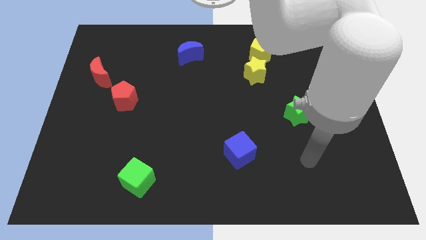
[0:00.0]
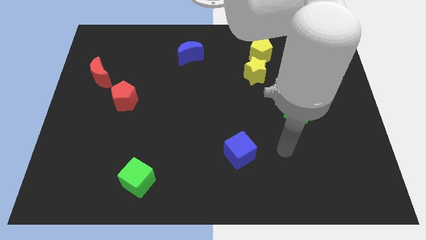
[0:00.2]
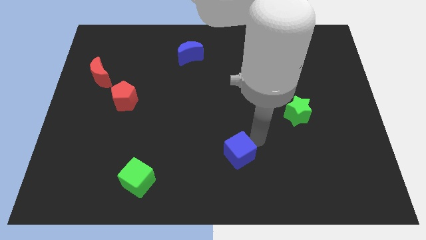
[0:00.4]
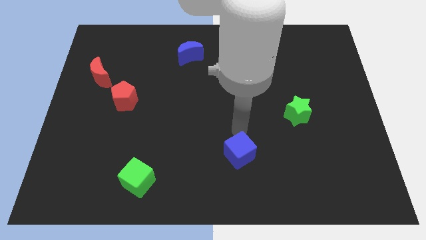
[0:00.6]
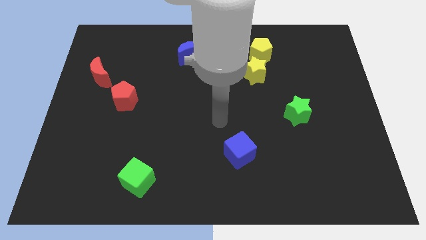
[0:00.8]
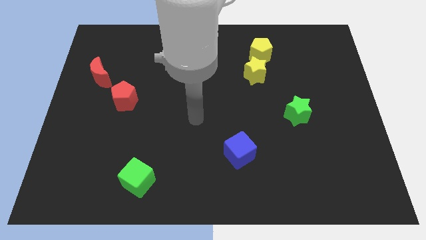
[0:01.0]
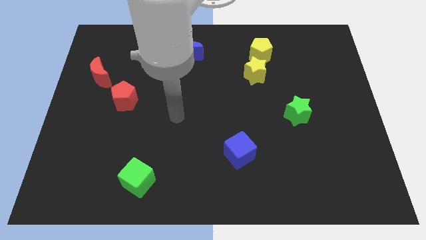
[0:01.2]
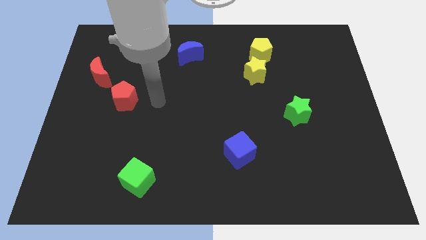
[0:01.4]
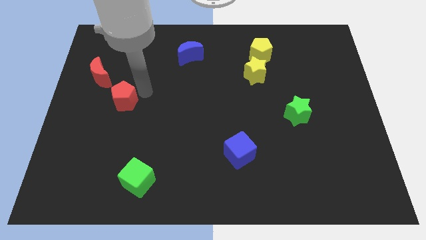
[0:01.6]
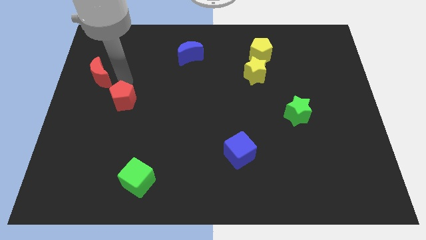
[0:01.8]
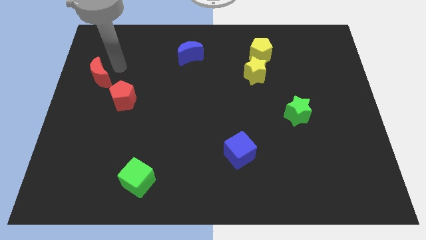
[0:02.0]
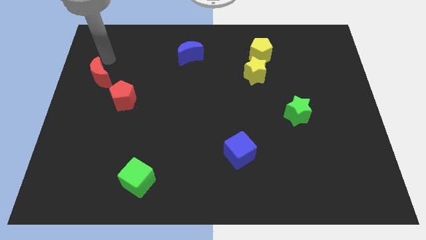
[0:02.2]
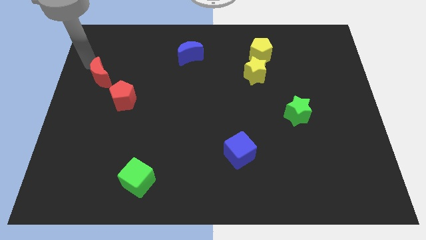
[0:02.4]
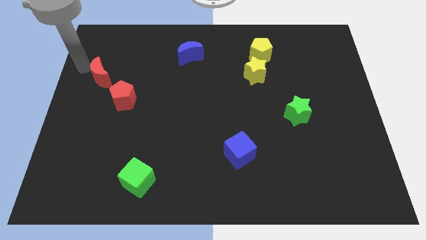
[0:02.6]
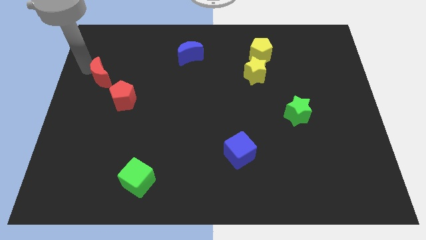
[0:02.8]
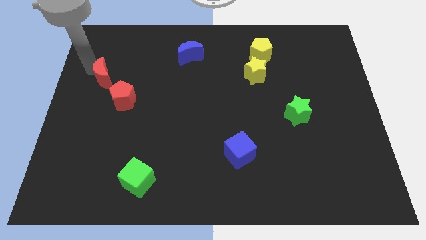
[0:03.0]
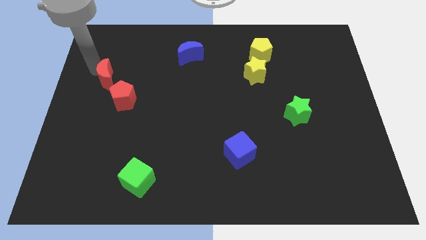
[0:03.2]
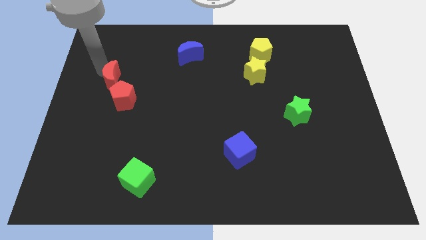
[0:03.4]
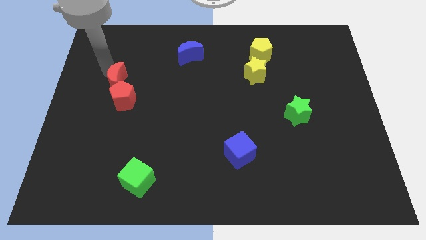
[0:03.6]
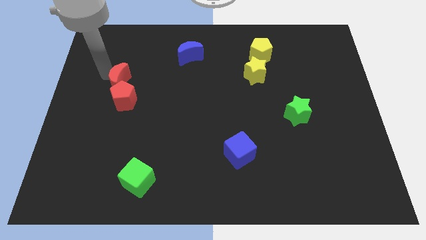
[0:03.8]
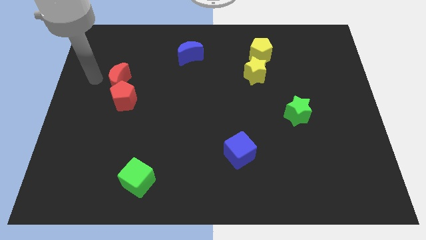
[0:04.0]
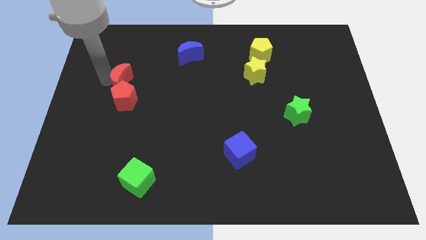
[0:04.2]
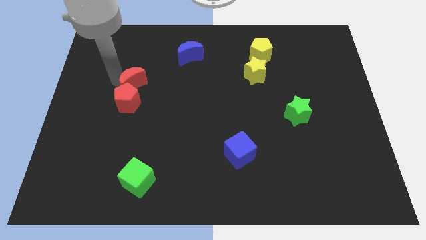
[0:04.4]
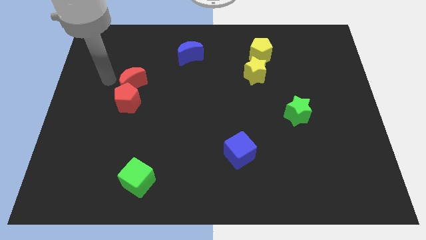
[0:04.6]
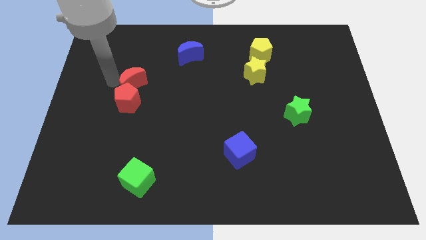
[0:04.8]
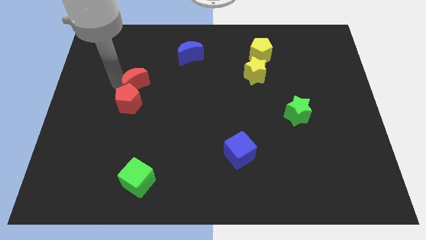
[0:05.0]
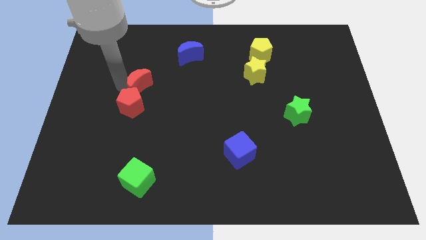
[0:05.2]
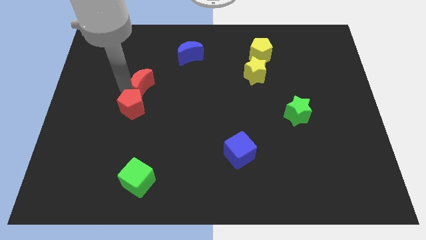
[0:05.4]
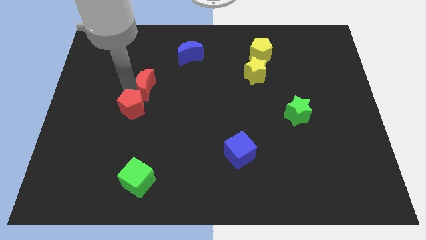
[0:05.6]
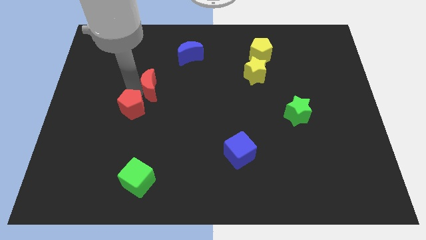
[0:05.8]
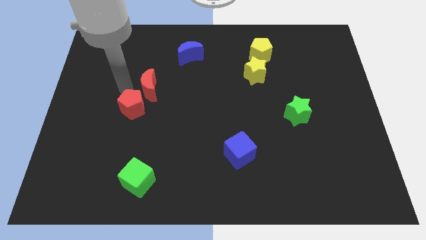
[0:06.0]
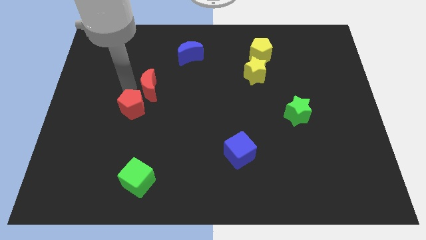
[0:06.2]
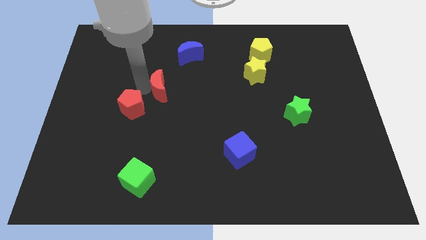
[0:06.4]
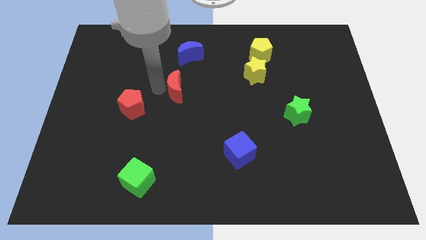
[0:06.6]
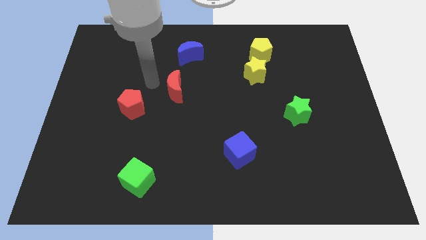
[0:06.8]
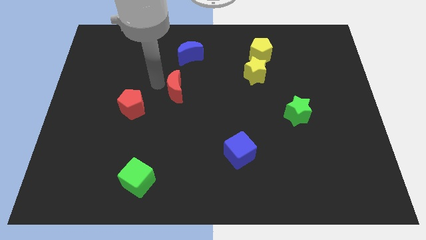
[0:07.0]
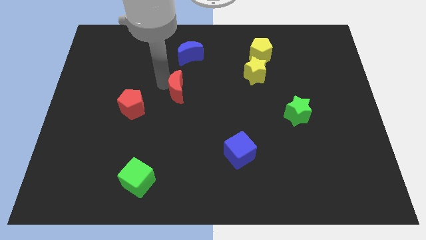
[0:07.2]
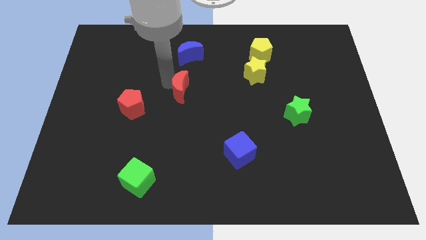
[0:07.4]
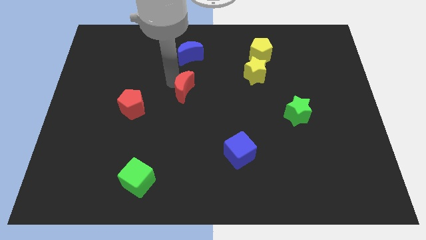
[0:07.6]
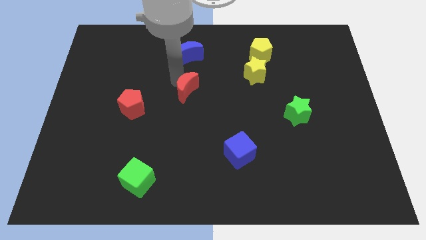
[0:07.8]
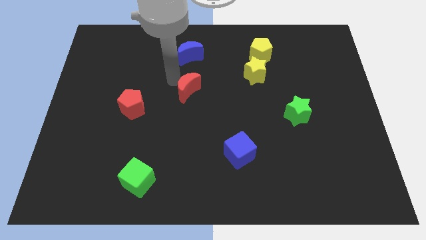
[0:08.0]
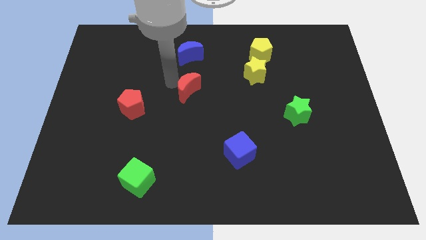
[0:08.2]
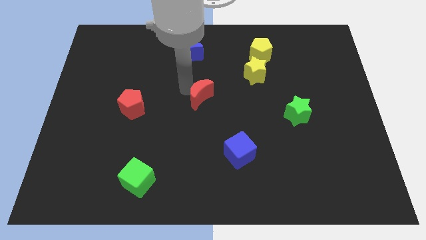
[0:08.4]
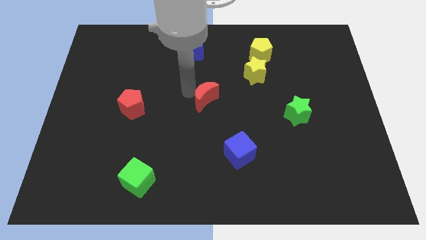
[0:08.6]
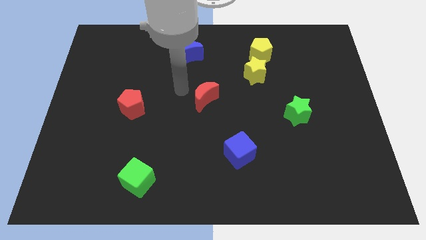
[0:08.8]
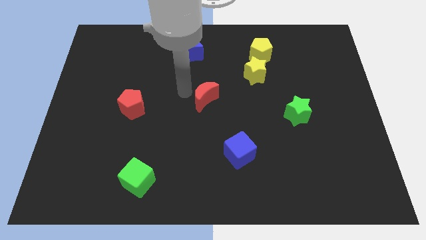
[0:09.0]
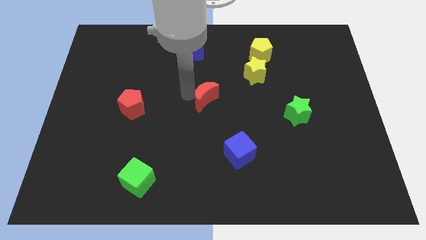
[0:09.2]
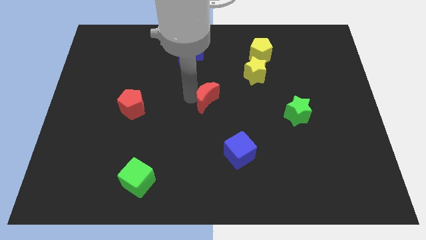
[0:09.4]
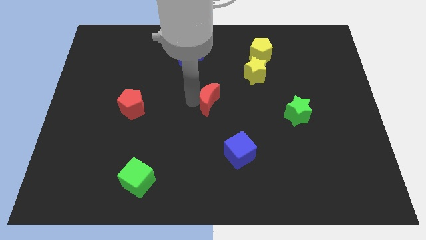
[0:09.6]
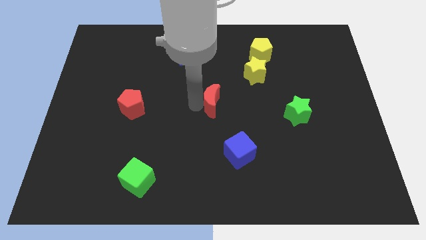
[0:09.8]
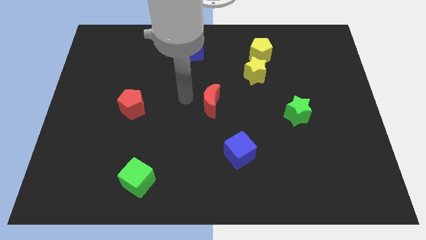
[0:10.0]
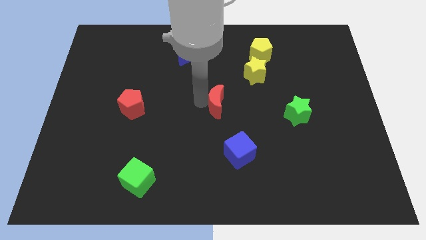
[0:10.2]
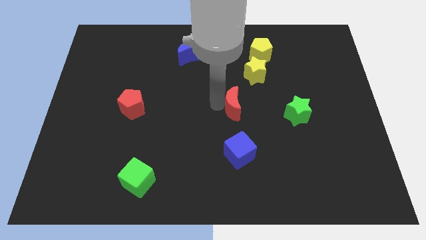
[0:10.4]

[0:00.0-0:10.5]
slide the red moon to the left of the green star

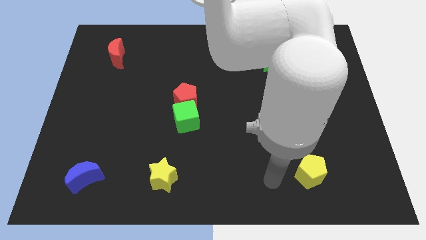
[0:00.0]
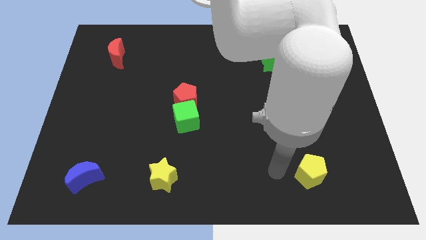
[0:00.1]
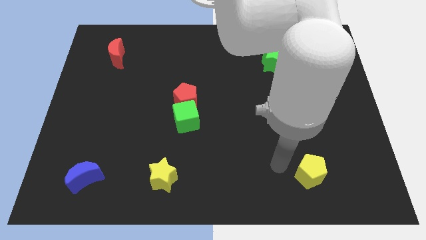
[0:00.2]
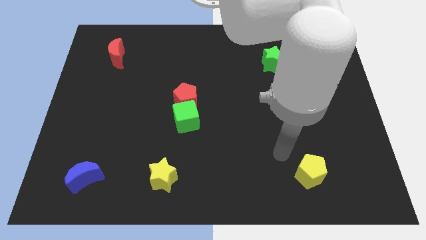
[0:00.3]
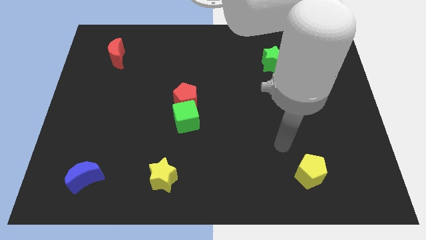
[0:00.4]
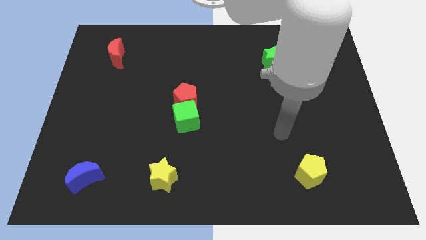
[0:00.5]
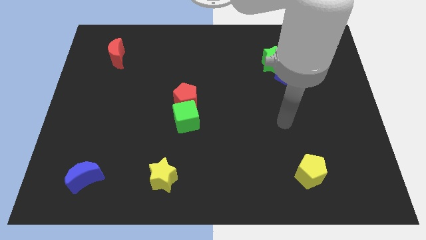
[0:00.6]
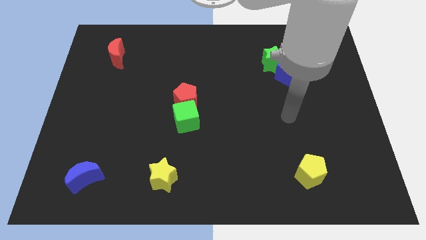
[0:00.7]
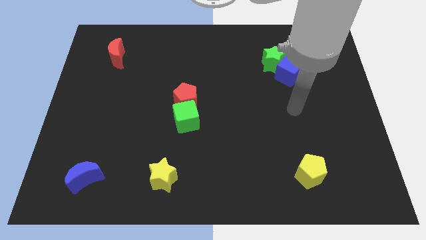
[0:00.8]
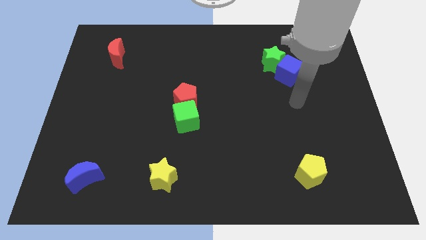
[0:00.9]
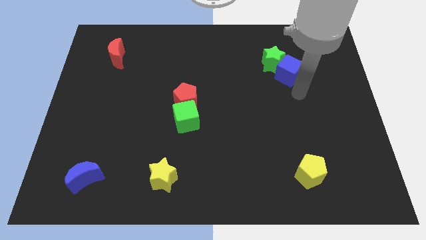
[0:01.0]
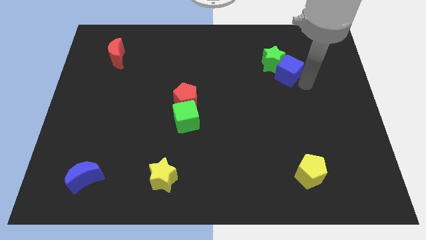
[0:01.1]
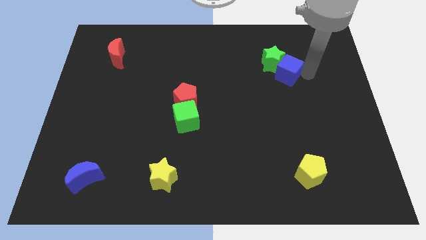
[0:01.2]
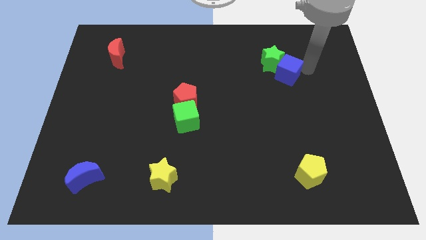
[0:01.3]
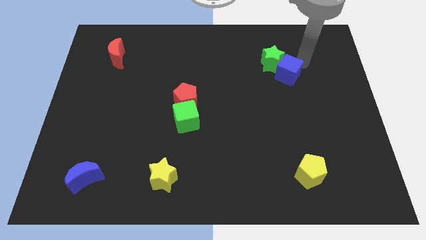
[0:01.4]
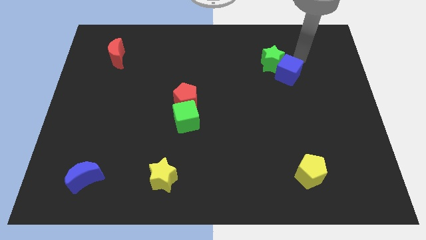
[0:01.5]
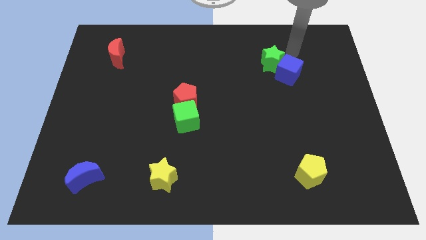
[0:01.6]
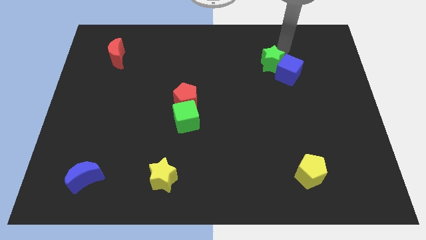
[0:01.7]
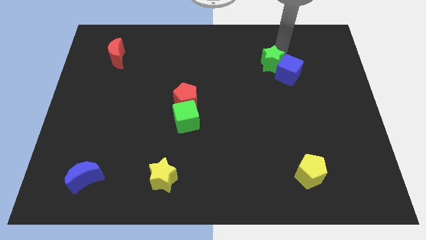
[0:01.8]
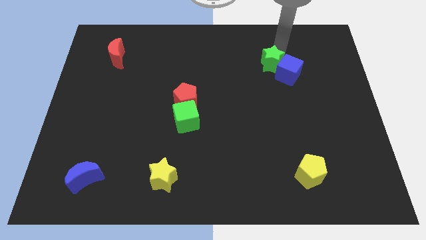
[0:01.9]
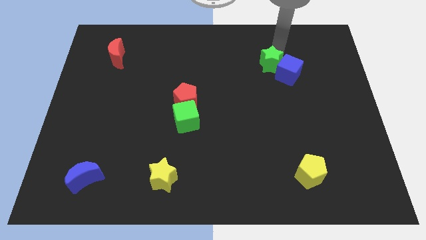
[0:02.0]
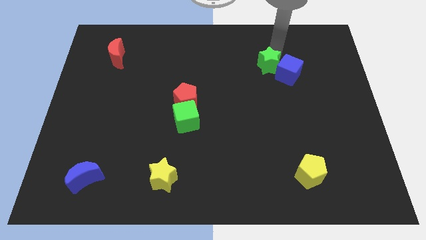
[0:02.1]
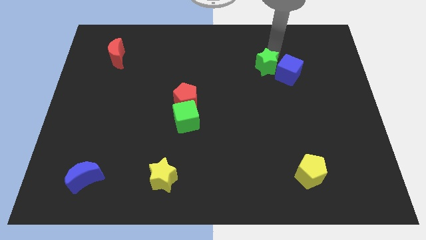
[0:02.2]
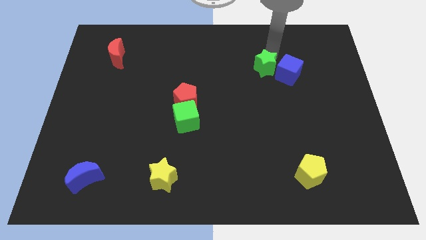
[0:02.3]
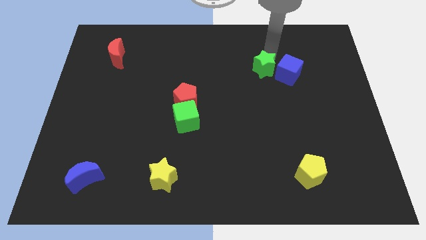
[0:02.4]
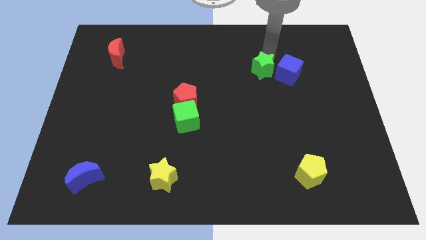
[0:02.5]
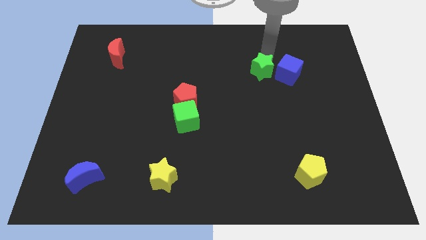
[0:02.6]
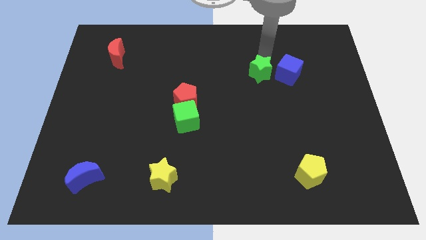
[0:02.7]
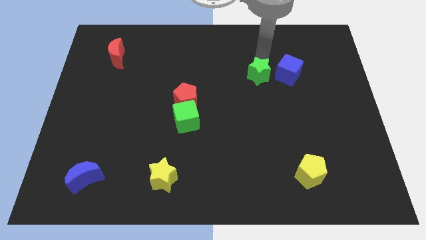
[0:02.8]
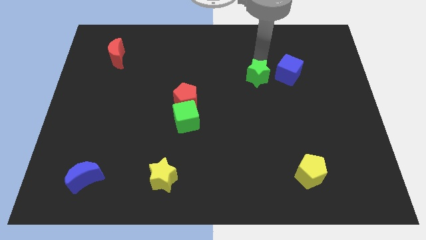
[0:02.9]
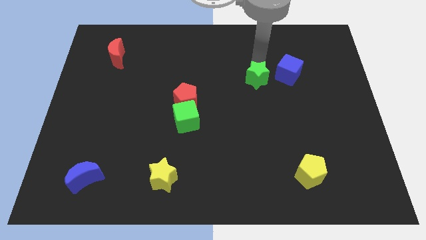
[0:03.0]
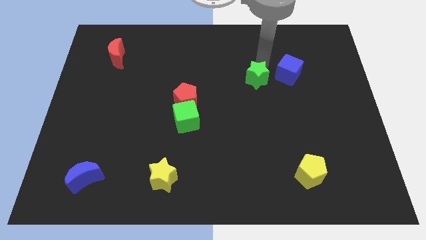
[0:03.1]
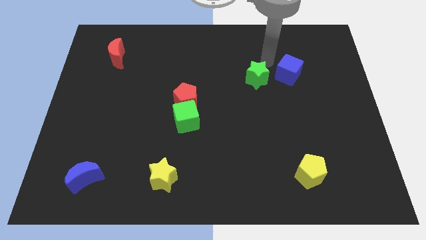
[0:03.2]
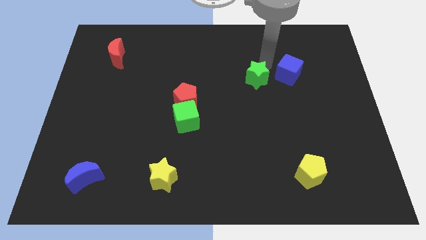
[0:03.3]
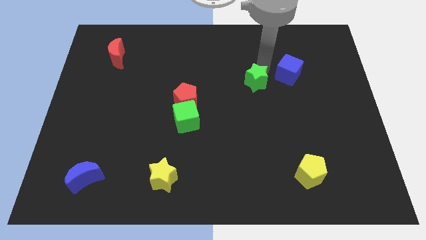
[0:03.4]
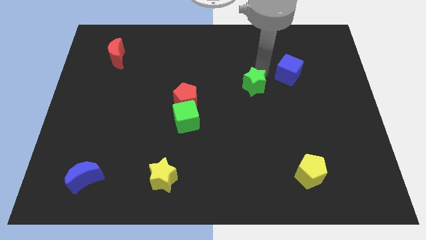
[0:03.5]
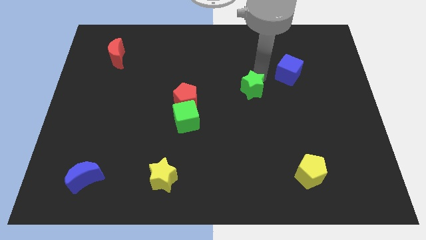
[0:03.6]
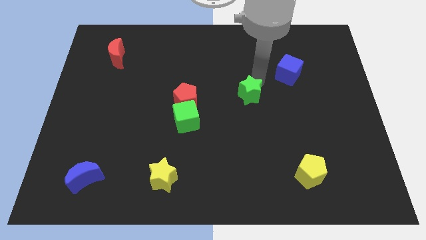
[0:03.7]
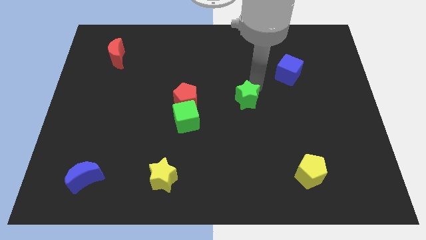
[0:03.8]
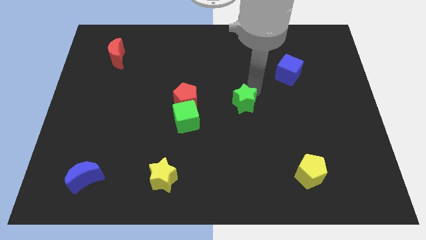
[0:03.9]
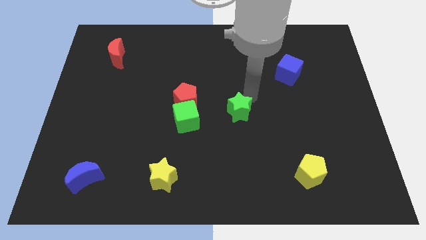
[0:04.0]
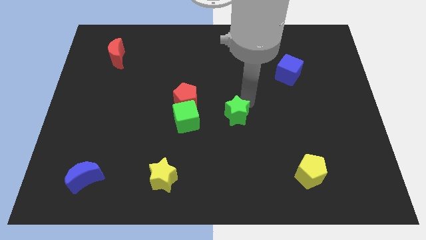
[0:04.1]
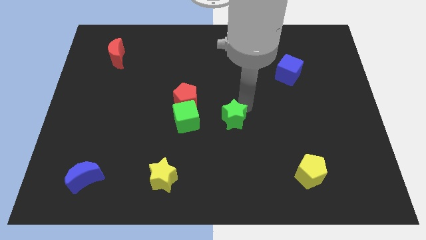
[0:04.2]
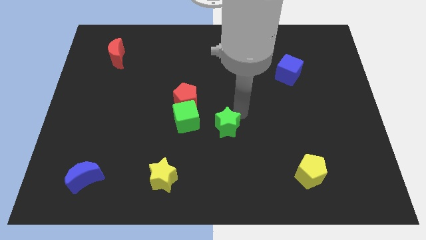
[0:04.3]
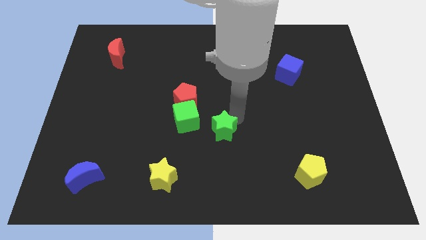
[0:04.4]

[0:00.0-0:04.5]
put the green star diagonally down and to the right of the green cube
